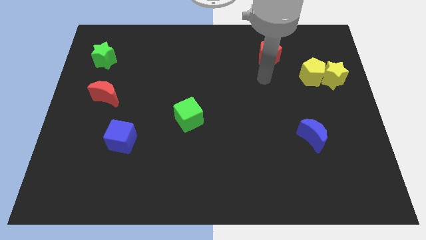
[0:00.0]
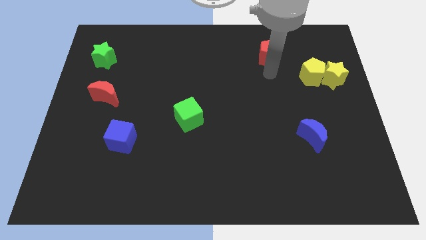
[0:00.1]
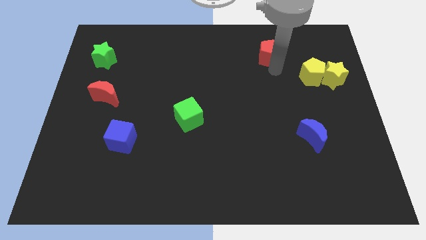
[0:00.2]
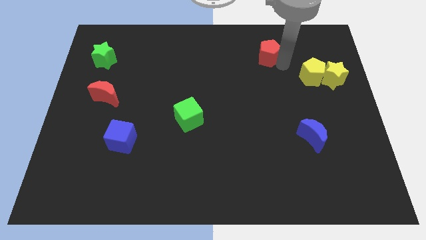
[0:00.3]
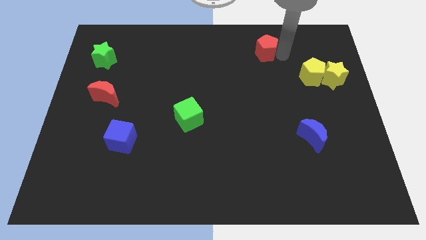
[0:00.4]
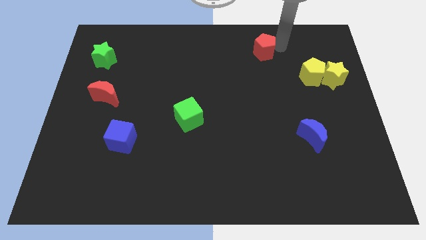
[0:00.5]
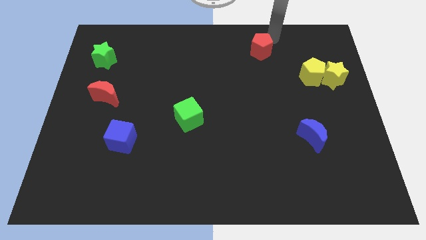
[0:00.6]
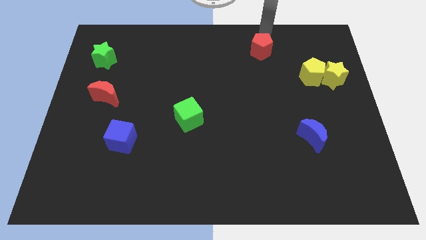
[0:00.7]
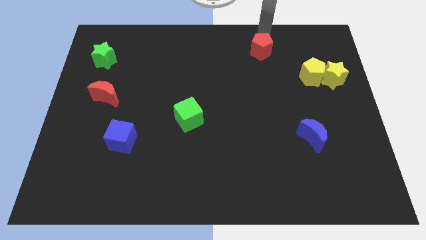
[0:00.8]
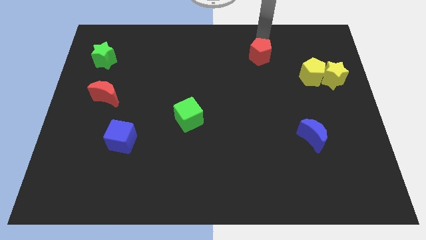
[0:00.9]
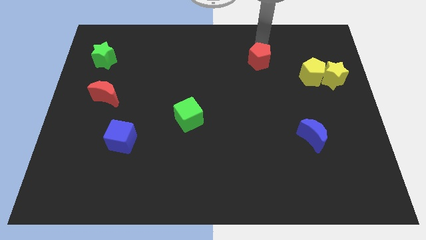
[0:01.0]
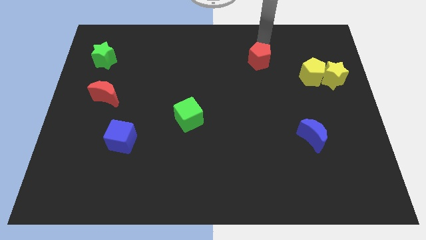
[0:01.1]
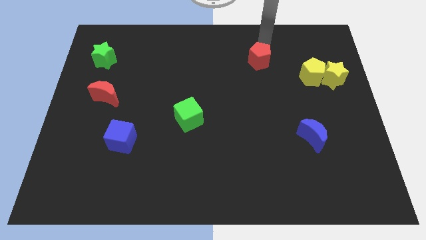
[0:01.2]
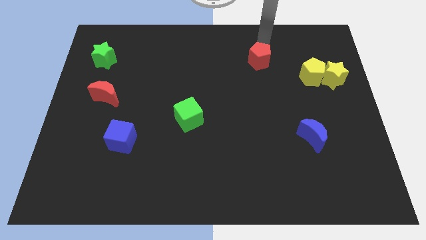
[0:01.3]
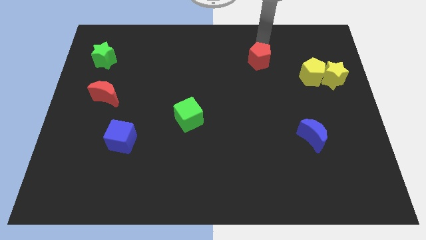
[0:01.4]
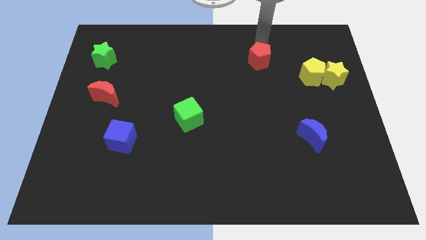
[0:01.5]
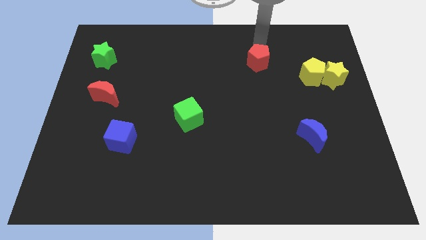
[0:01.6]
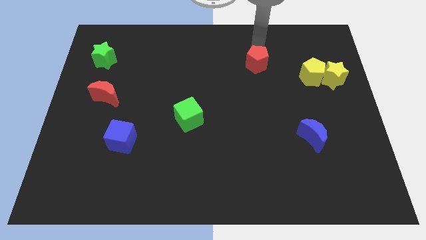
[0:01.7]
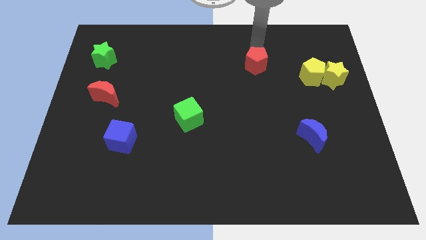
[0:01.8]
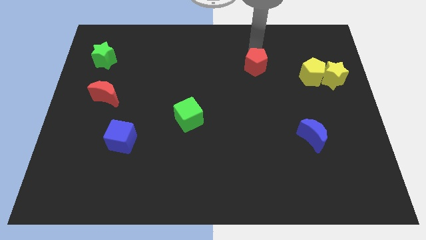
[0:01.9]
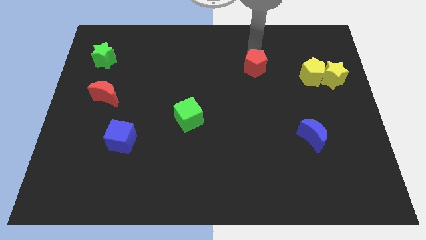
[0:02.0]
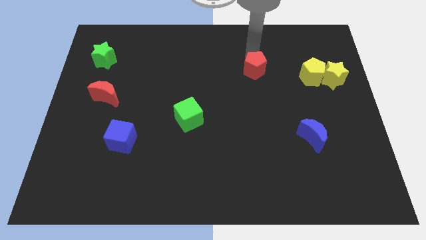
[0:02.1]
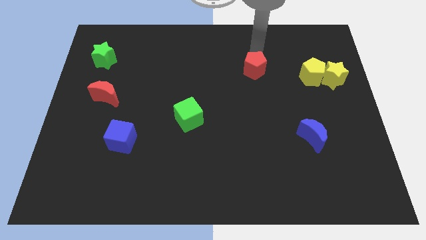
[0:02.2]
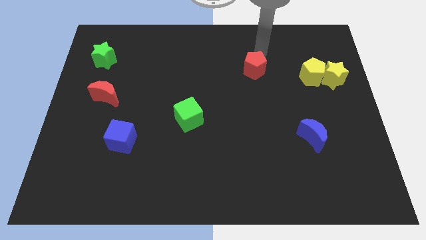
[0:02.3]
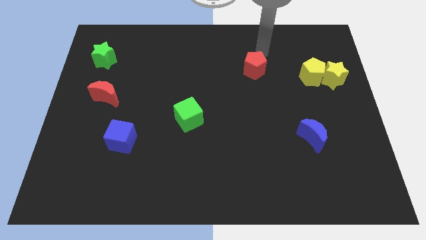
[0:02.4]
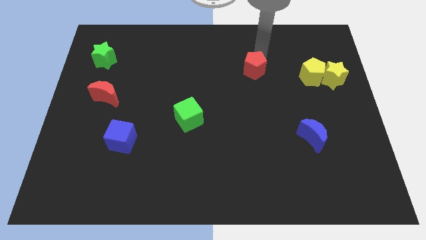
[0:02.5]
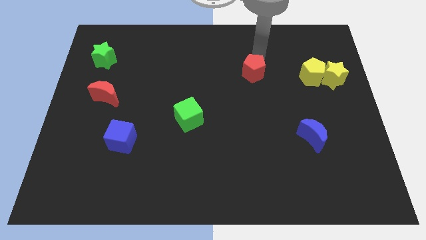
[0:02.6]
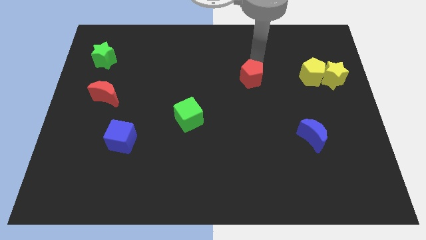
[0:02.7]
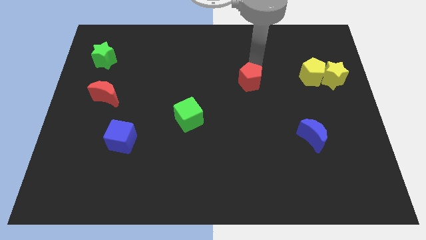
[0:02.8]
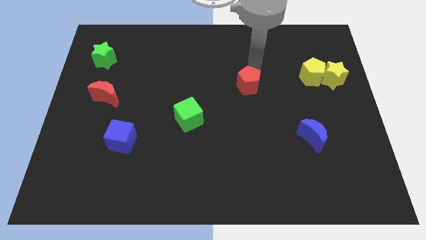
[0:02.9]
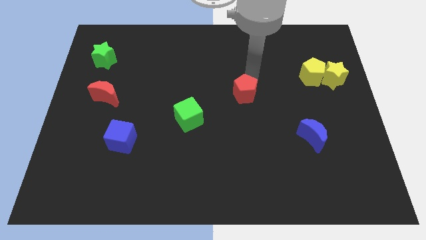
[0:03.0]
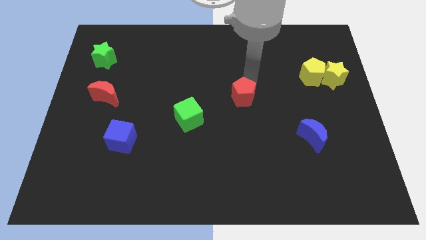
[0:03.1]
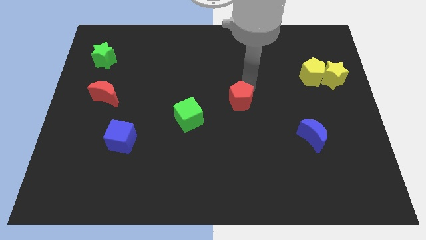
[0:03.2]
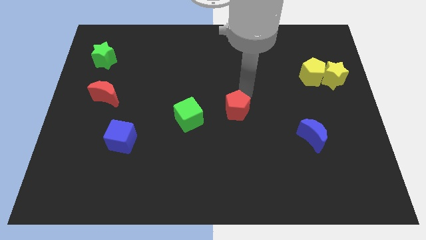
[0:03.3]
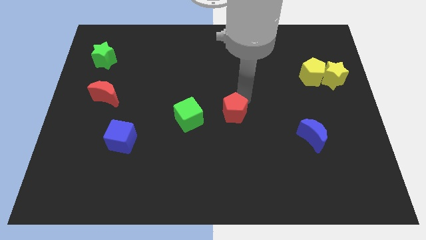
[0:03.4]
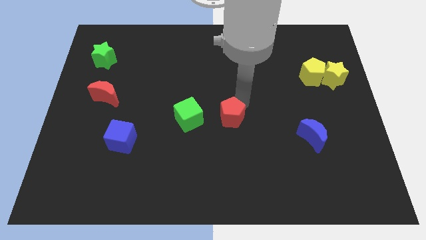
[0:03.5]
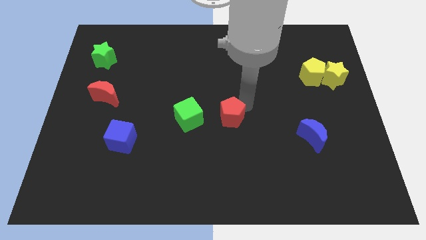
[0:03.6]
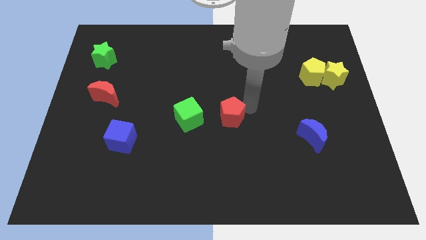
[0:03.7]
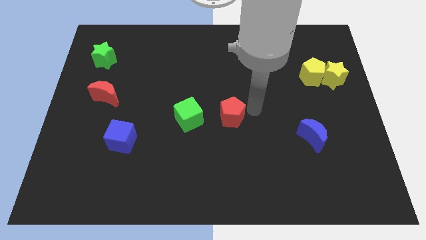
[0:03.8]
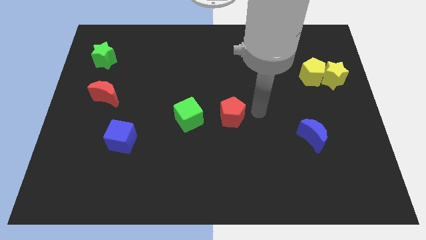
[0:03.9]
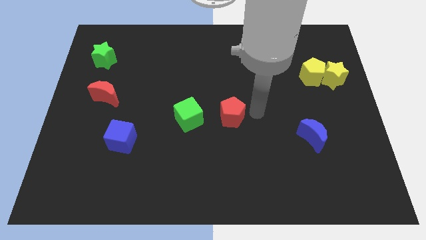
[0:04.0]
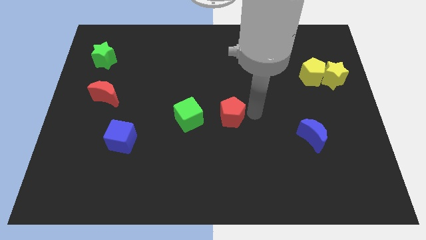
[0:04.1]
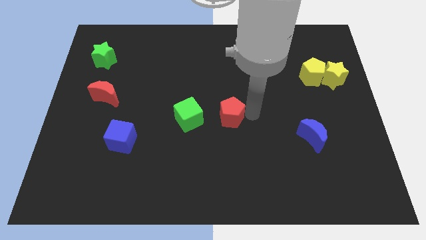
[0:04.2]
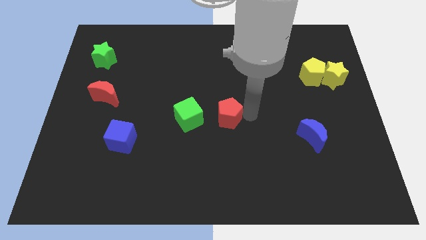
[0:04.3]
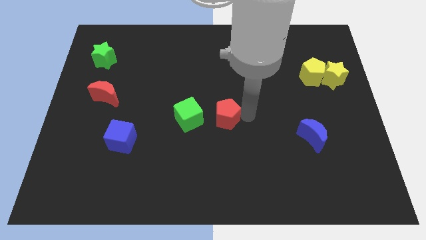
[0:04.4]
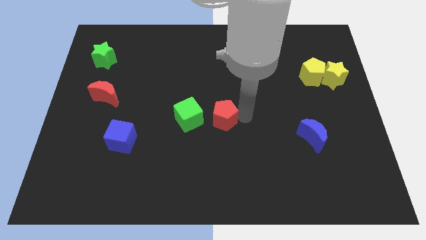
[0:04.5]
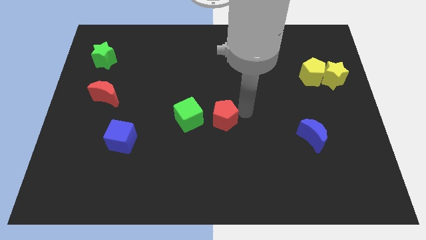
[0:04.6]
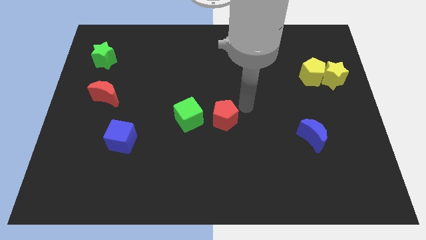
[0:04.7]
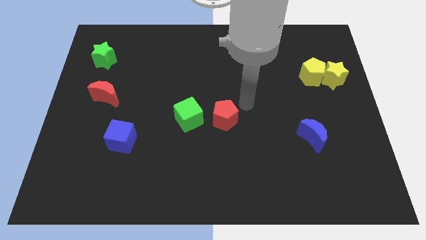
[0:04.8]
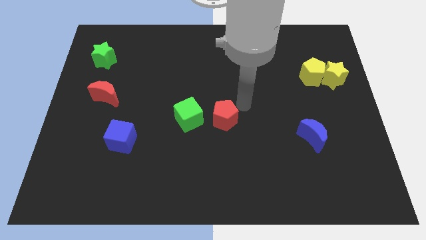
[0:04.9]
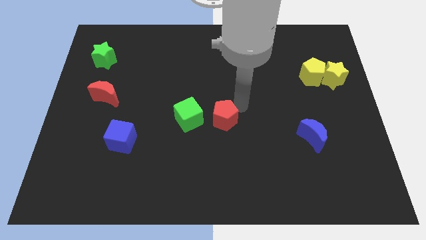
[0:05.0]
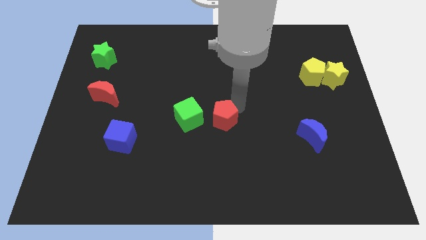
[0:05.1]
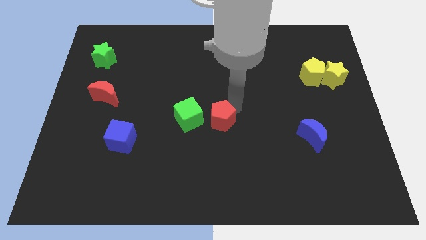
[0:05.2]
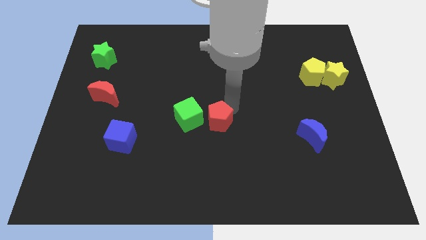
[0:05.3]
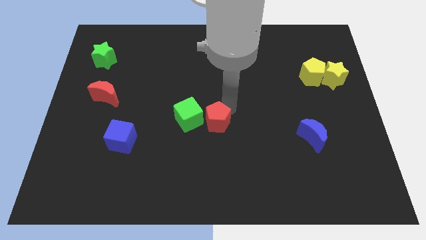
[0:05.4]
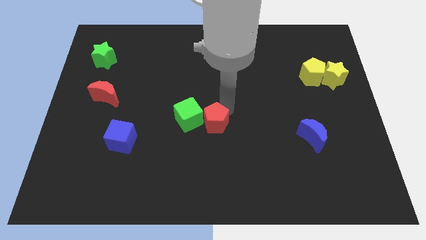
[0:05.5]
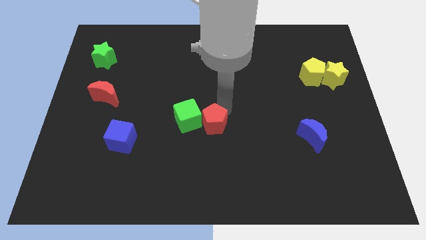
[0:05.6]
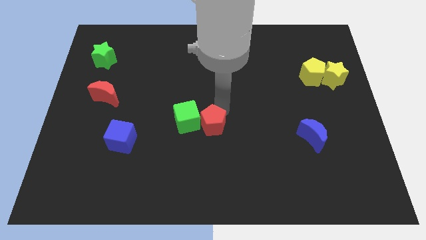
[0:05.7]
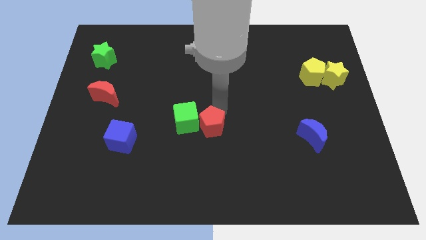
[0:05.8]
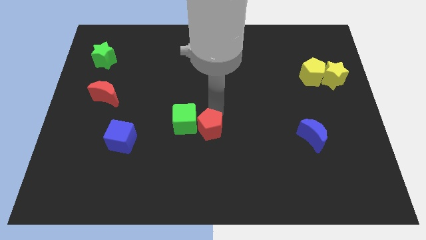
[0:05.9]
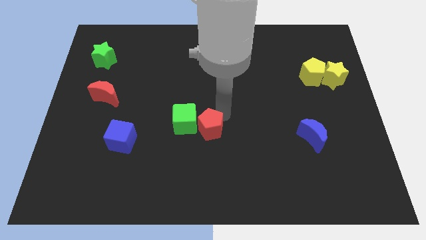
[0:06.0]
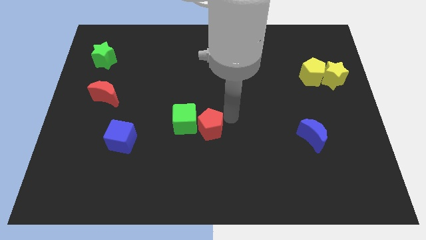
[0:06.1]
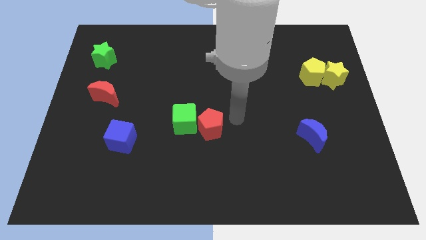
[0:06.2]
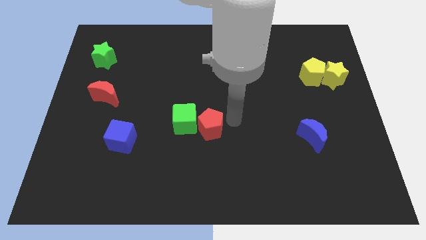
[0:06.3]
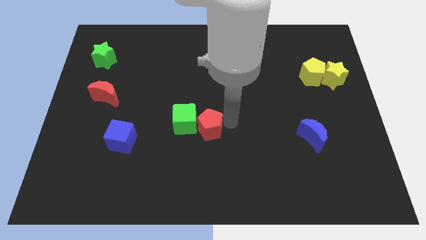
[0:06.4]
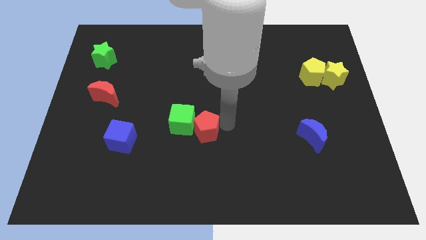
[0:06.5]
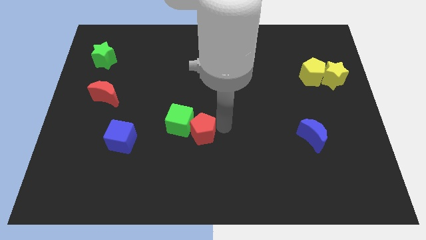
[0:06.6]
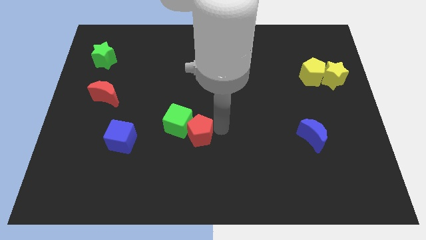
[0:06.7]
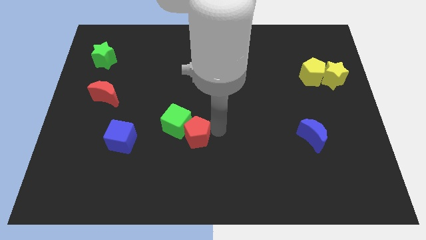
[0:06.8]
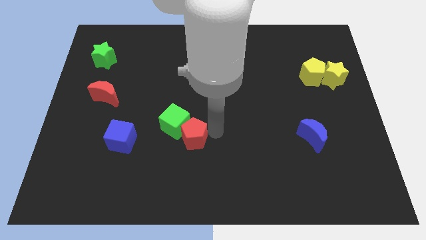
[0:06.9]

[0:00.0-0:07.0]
push the red pentagon to the right of the blue cube
